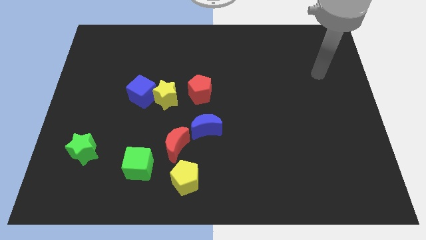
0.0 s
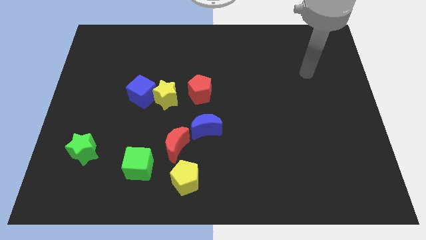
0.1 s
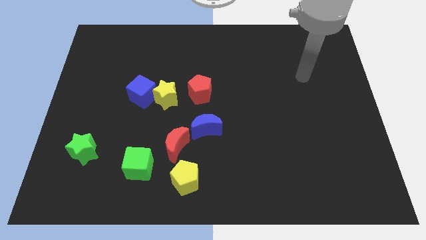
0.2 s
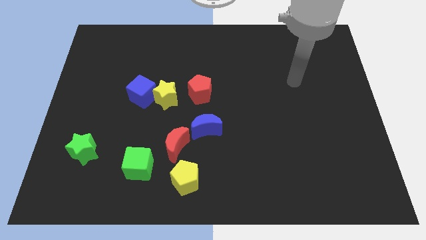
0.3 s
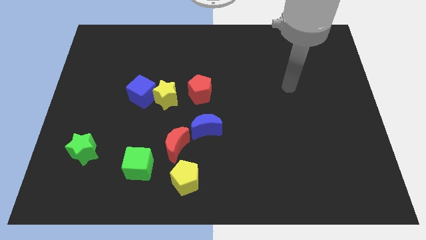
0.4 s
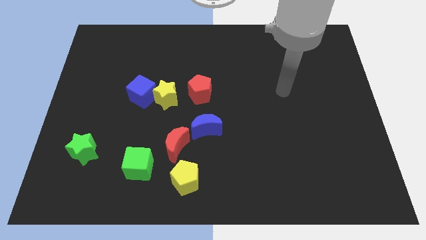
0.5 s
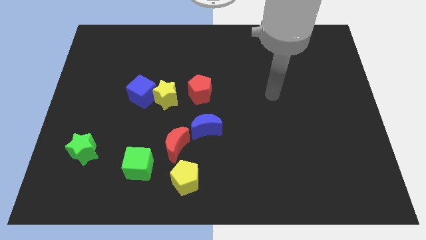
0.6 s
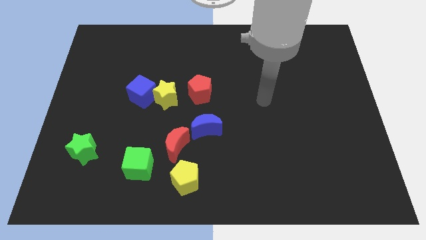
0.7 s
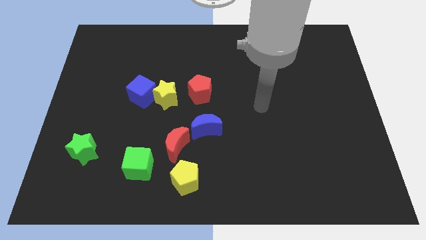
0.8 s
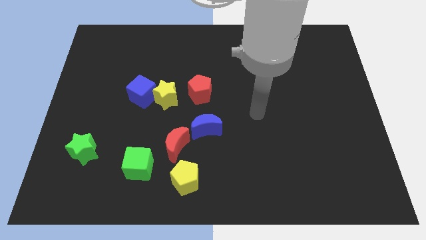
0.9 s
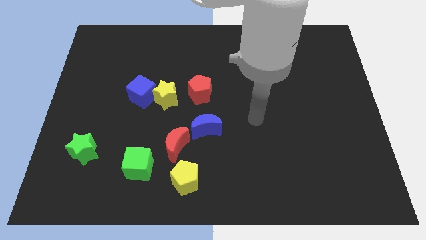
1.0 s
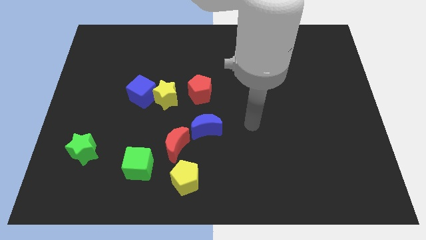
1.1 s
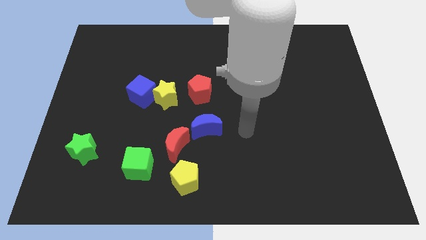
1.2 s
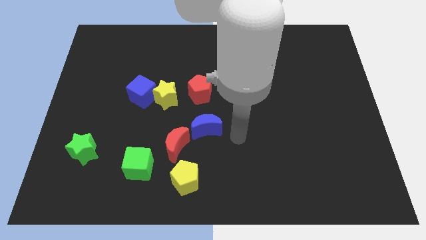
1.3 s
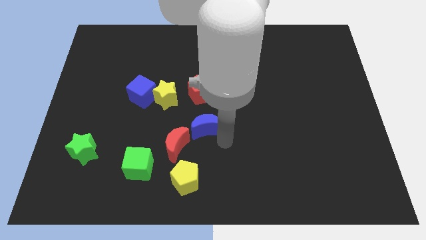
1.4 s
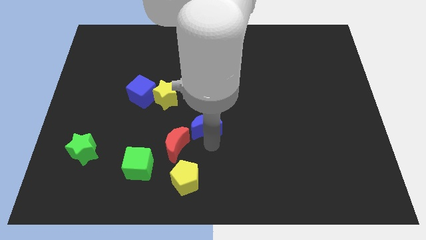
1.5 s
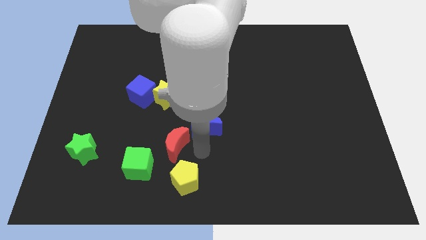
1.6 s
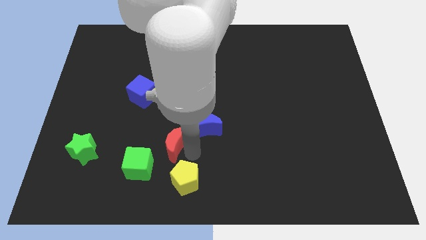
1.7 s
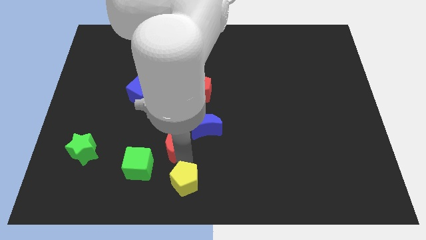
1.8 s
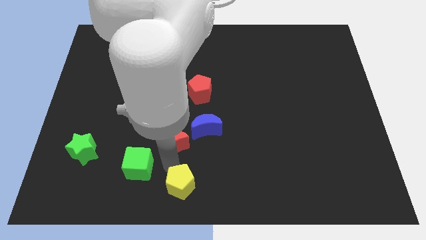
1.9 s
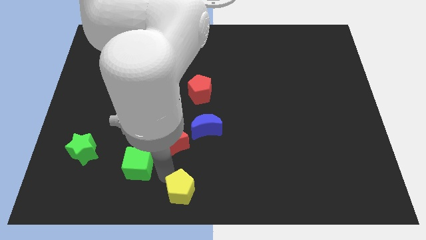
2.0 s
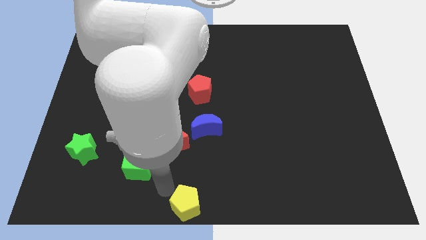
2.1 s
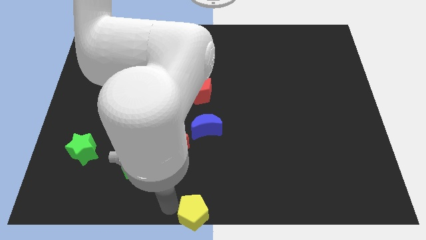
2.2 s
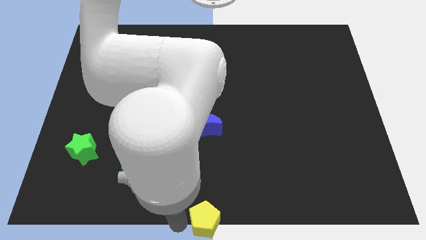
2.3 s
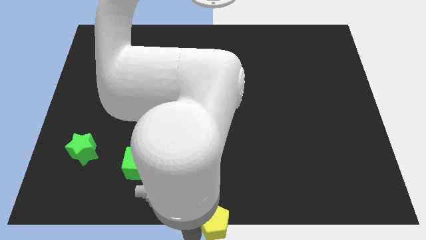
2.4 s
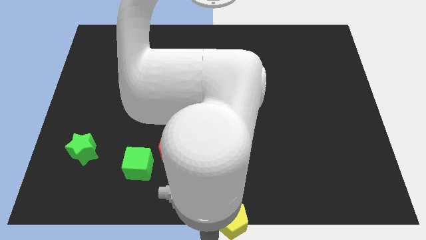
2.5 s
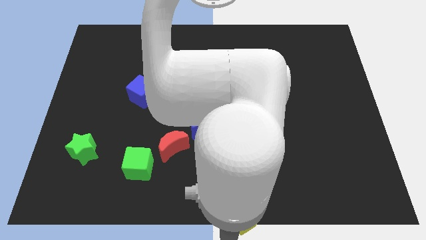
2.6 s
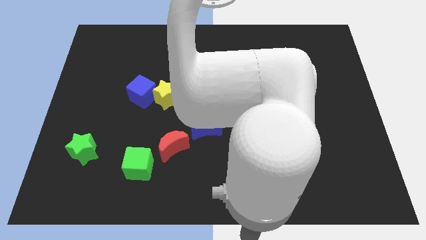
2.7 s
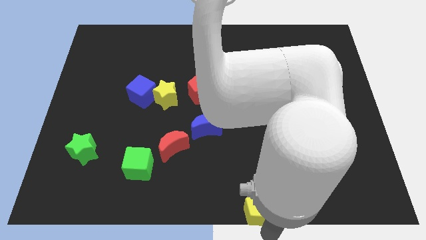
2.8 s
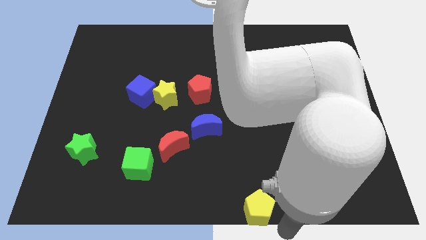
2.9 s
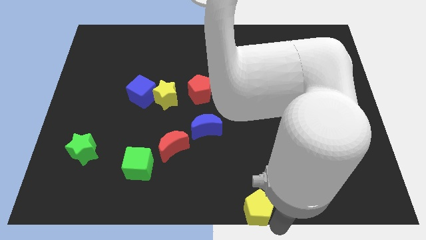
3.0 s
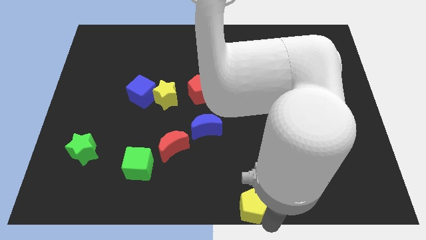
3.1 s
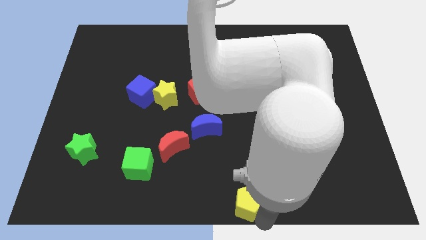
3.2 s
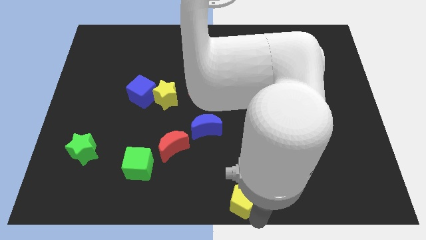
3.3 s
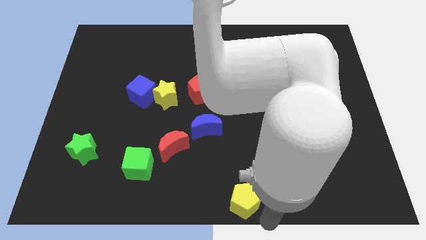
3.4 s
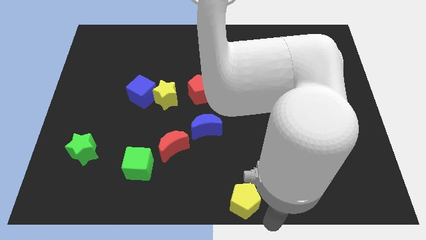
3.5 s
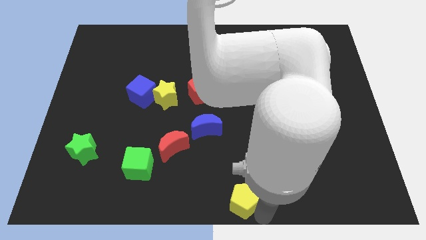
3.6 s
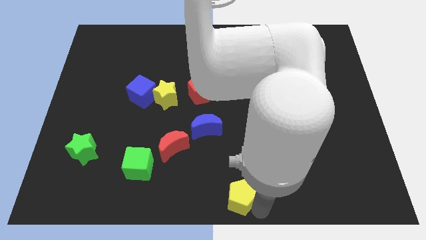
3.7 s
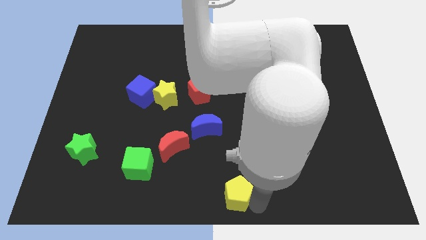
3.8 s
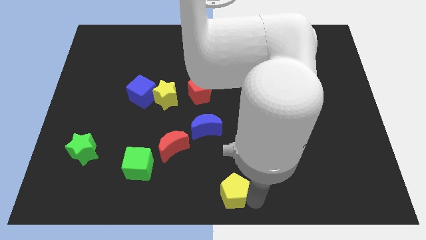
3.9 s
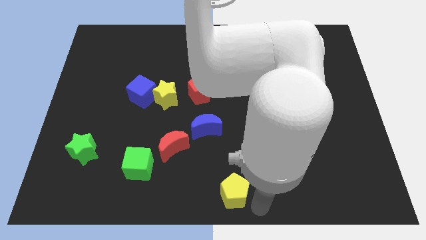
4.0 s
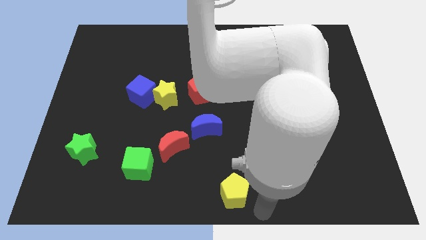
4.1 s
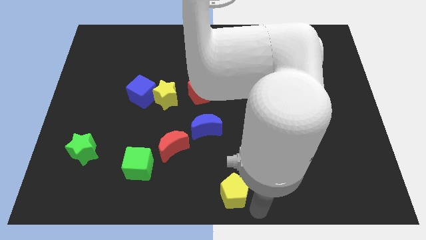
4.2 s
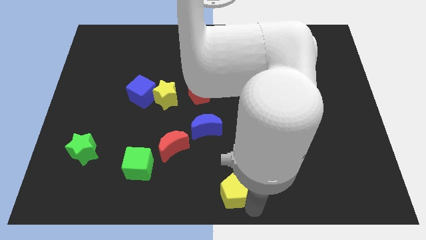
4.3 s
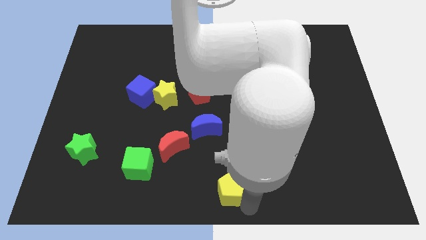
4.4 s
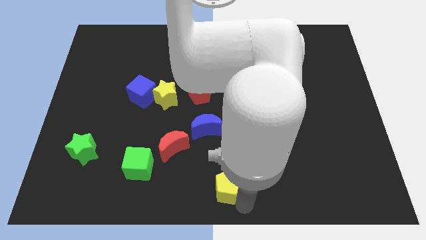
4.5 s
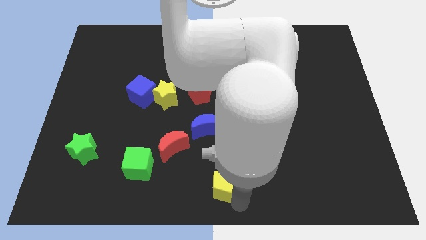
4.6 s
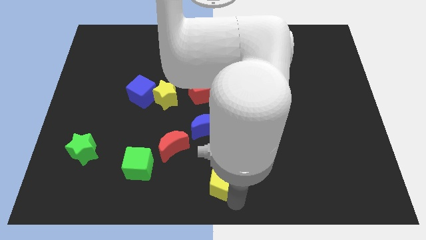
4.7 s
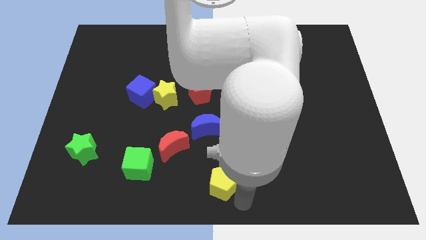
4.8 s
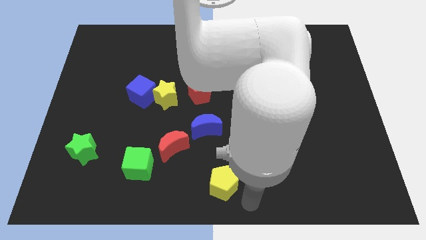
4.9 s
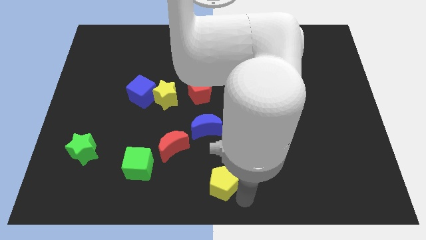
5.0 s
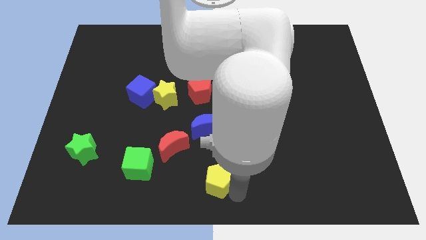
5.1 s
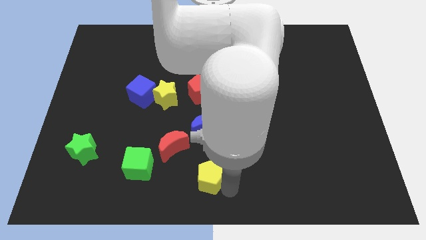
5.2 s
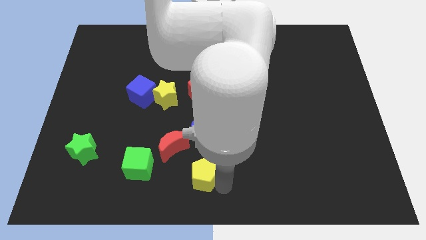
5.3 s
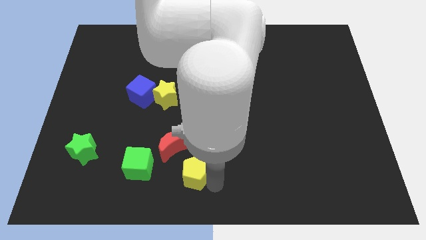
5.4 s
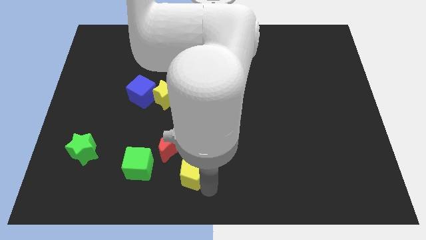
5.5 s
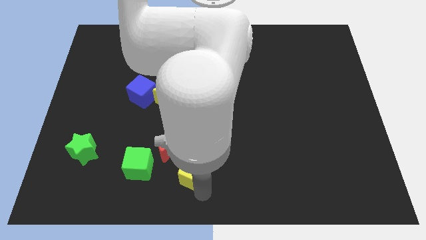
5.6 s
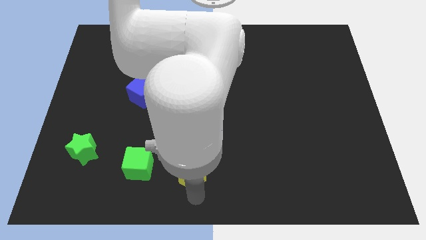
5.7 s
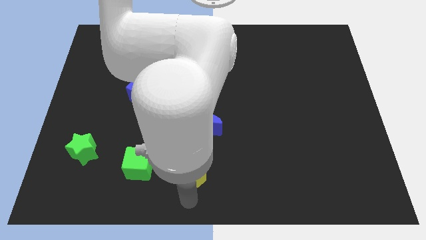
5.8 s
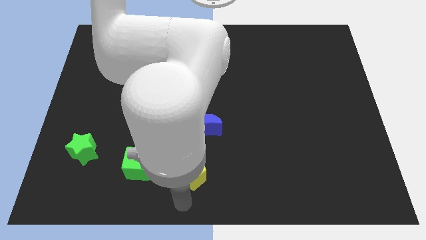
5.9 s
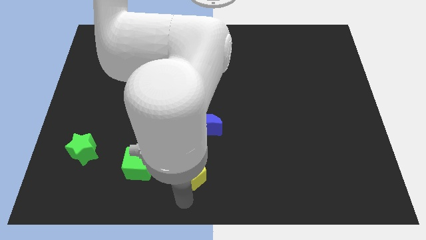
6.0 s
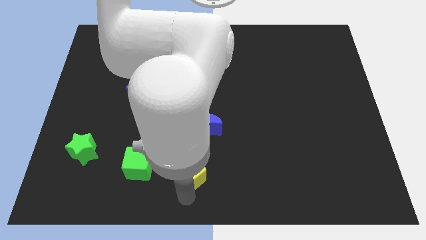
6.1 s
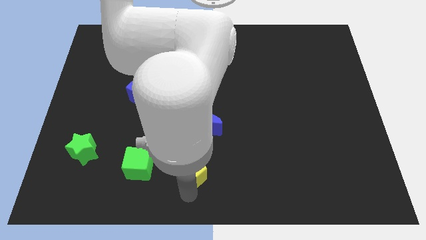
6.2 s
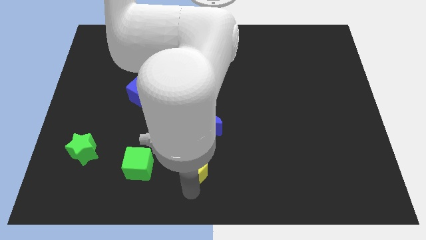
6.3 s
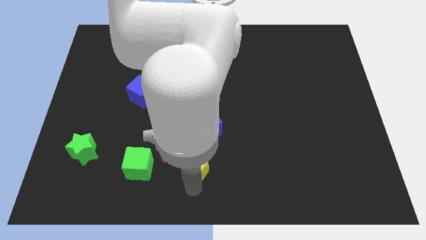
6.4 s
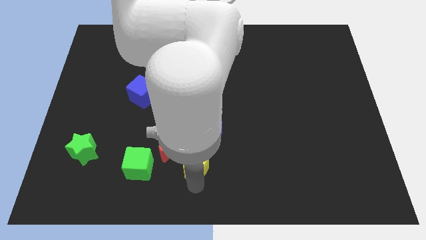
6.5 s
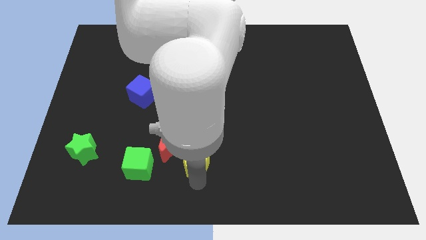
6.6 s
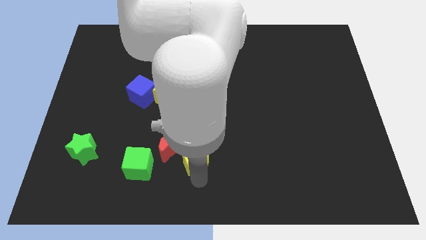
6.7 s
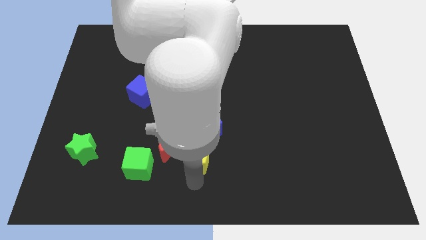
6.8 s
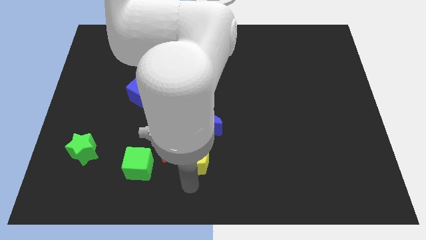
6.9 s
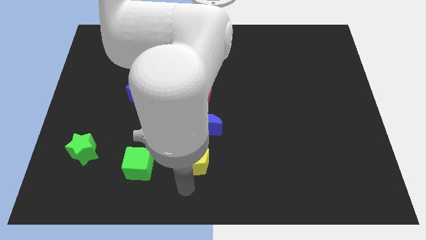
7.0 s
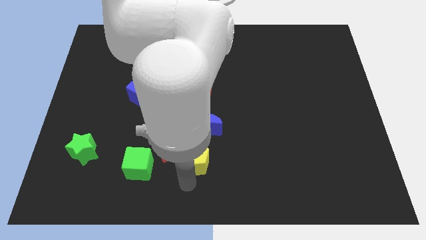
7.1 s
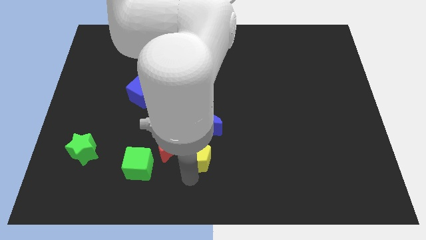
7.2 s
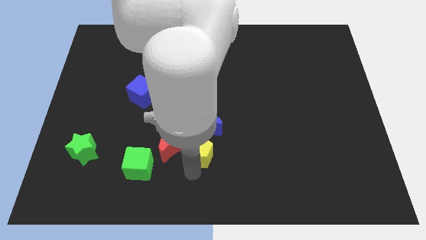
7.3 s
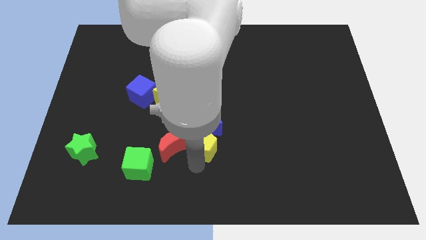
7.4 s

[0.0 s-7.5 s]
push the yellow pentagon towards the blue moon
